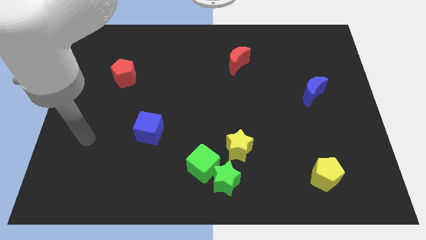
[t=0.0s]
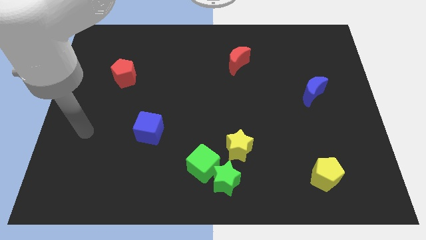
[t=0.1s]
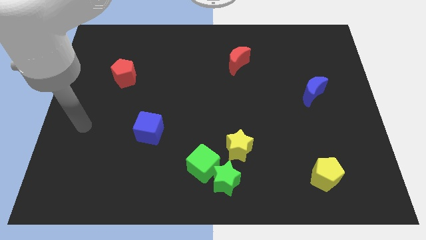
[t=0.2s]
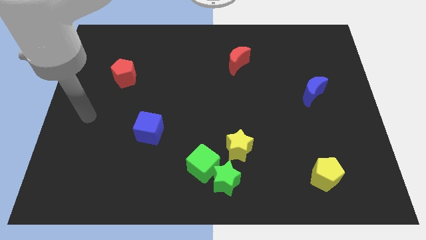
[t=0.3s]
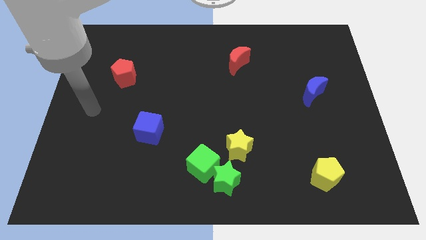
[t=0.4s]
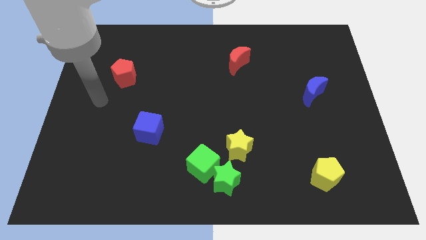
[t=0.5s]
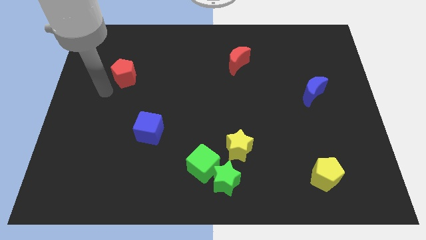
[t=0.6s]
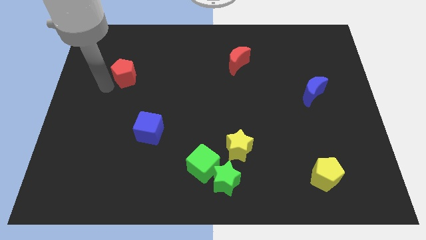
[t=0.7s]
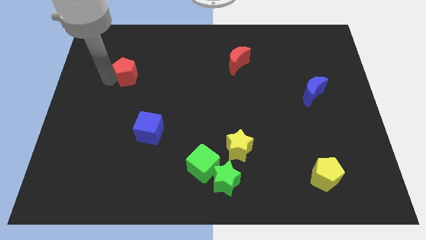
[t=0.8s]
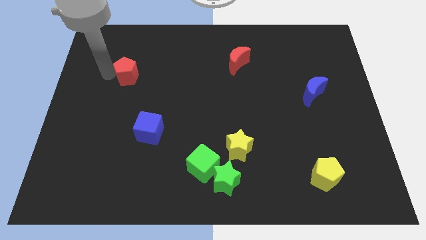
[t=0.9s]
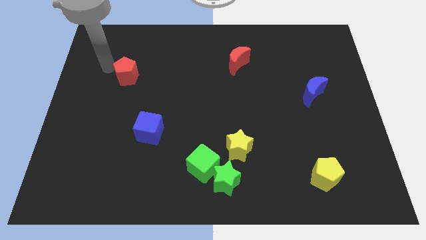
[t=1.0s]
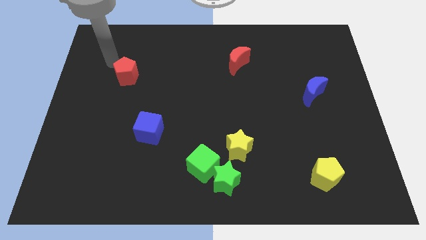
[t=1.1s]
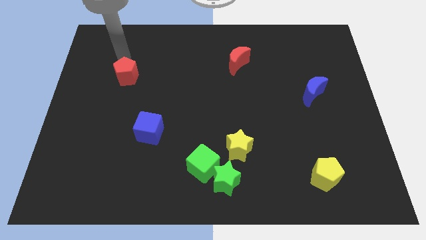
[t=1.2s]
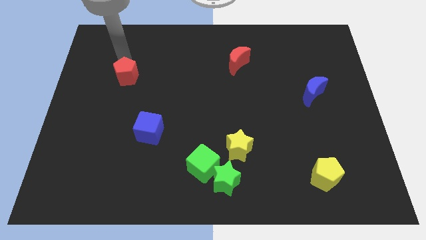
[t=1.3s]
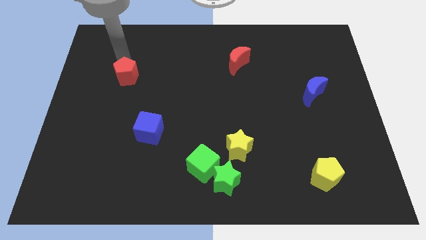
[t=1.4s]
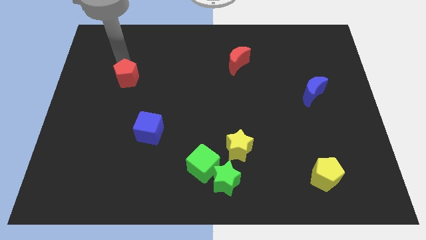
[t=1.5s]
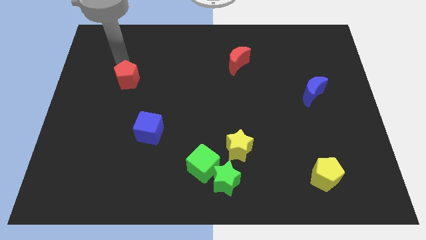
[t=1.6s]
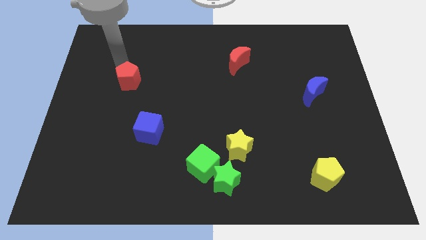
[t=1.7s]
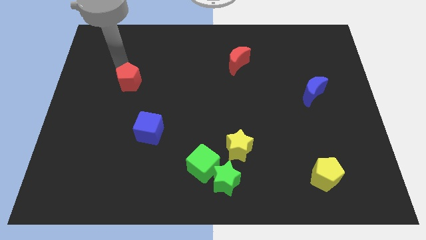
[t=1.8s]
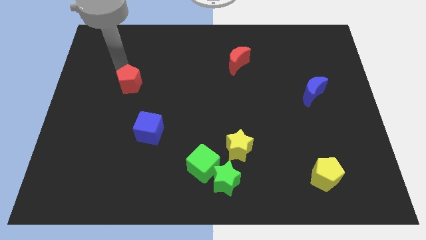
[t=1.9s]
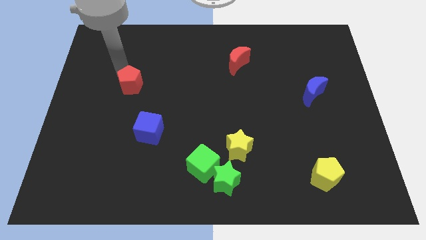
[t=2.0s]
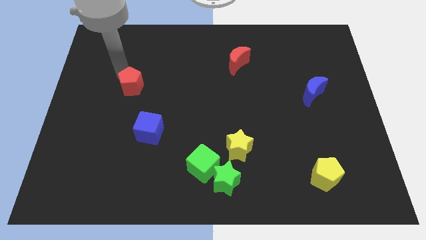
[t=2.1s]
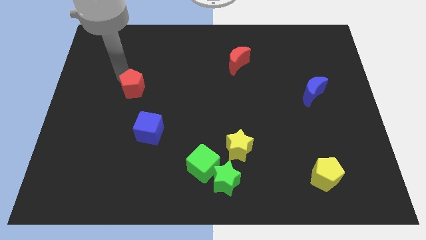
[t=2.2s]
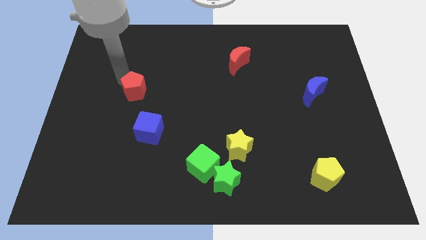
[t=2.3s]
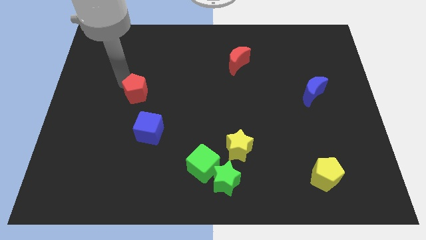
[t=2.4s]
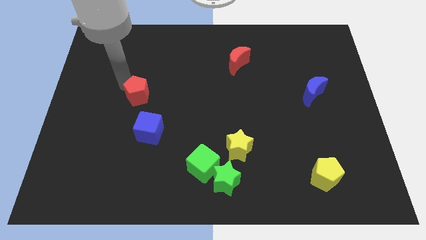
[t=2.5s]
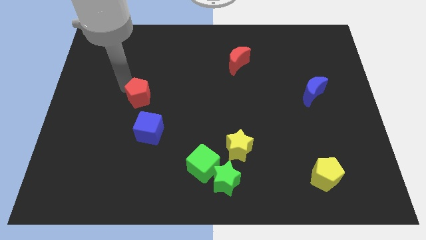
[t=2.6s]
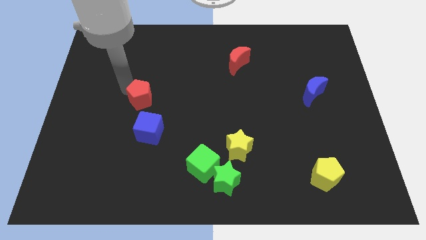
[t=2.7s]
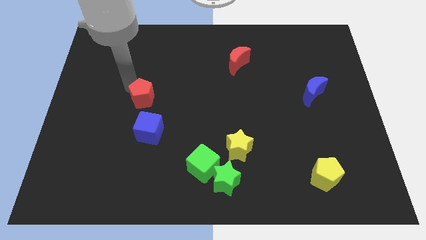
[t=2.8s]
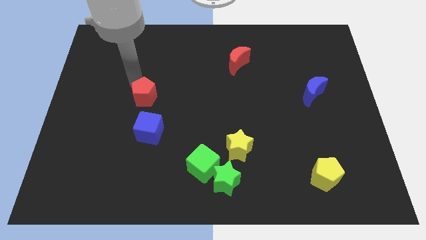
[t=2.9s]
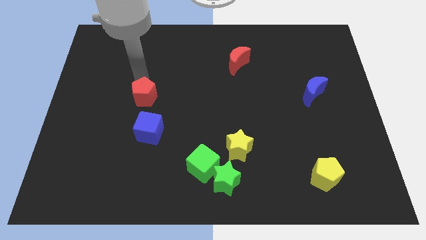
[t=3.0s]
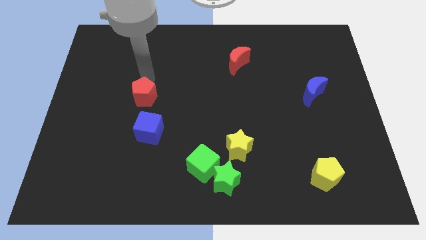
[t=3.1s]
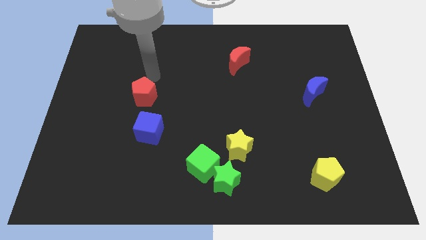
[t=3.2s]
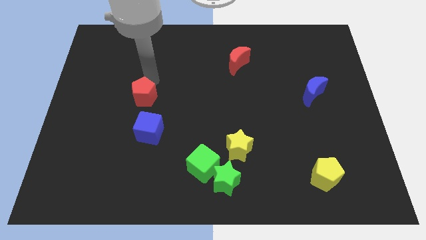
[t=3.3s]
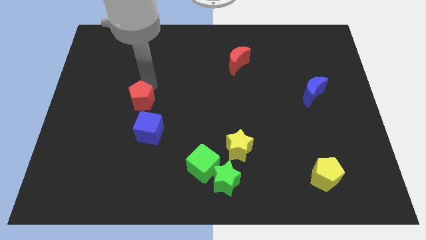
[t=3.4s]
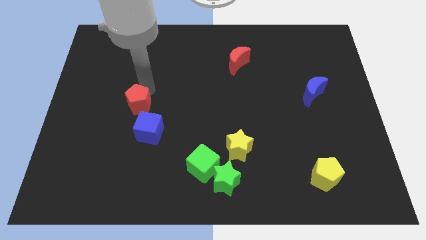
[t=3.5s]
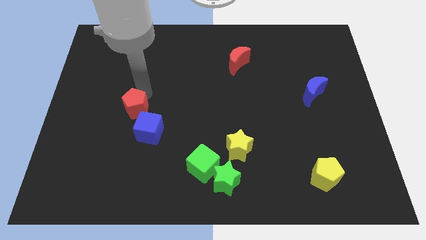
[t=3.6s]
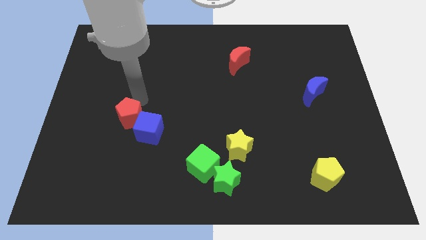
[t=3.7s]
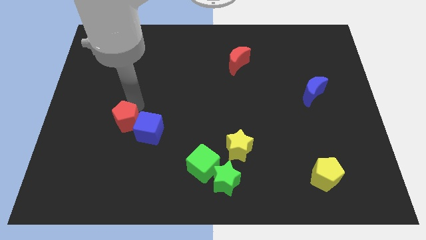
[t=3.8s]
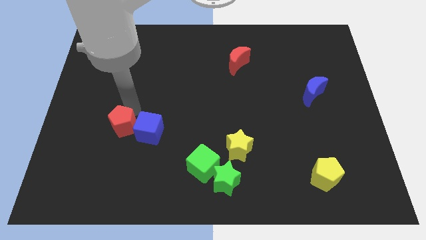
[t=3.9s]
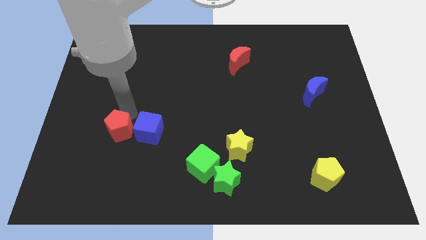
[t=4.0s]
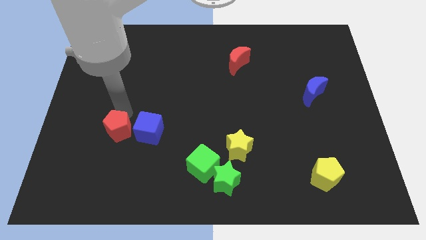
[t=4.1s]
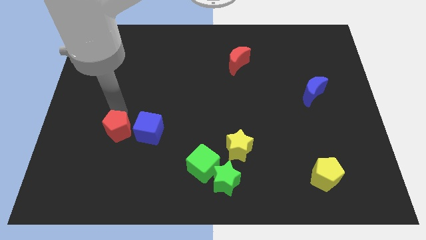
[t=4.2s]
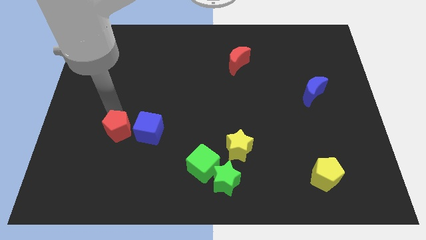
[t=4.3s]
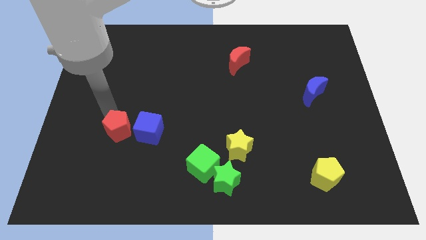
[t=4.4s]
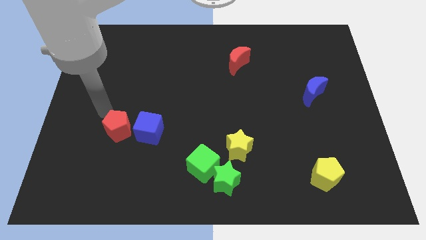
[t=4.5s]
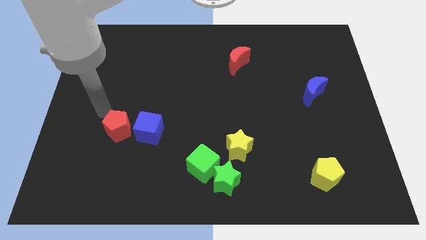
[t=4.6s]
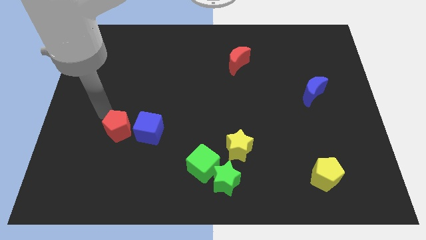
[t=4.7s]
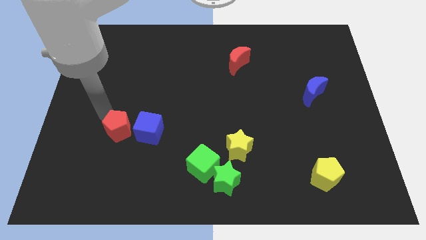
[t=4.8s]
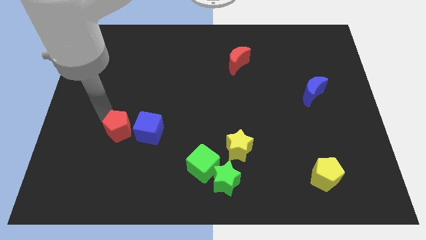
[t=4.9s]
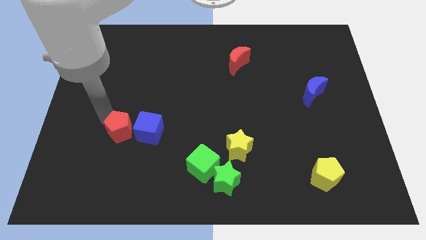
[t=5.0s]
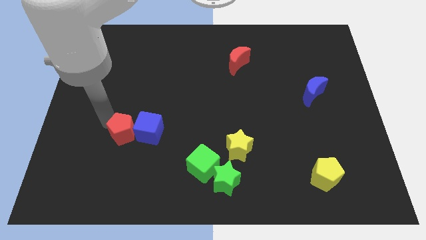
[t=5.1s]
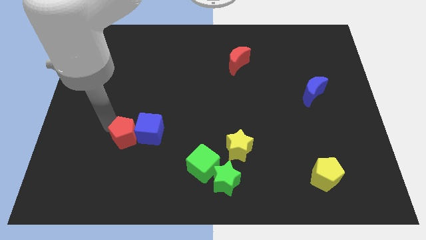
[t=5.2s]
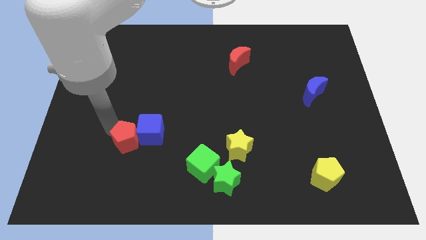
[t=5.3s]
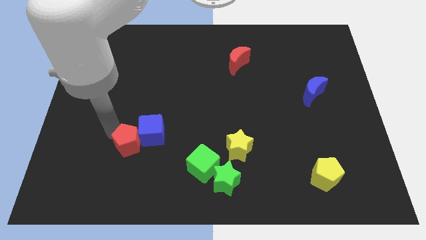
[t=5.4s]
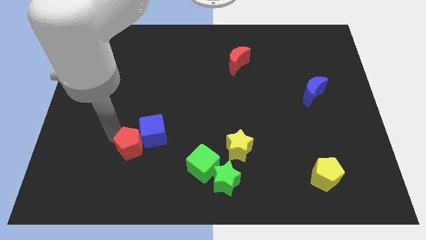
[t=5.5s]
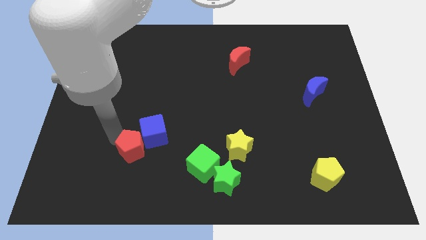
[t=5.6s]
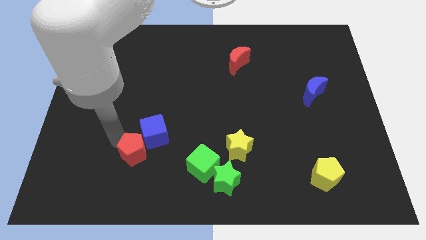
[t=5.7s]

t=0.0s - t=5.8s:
put the red pentagon to the left side of the green cube

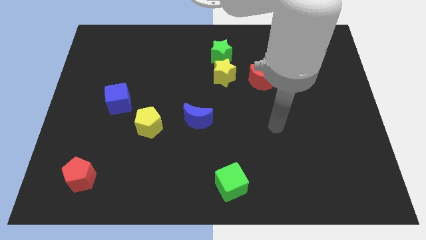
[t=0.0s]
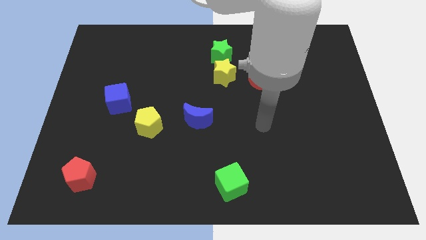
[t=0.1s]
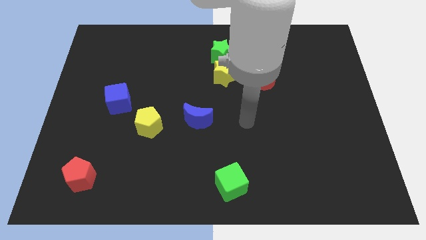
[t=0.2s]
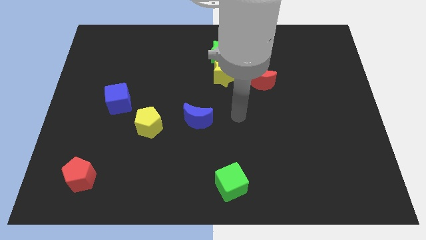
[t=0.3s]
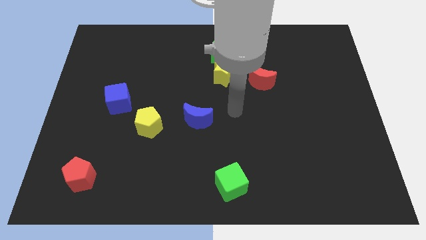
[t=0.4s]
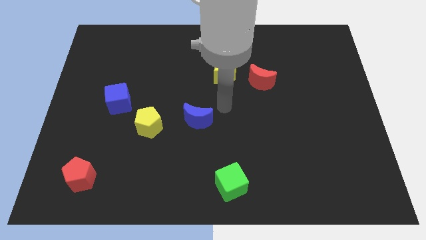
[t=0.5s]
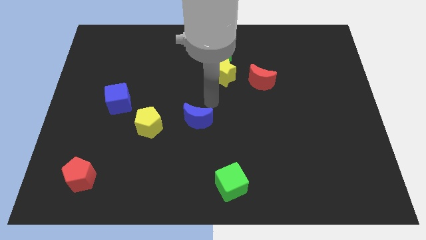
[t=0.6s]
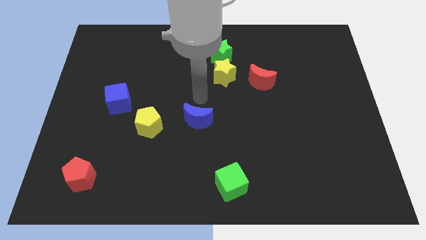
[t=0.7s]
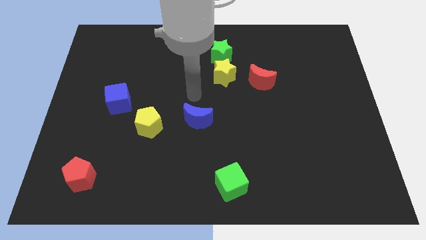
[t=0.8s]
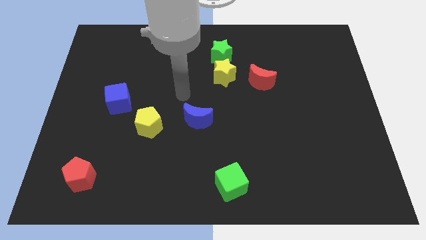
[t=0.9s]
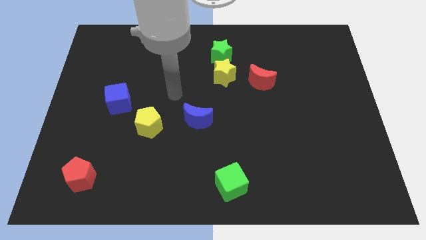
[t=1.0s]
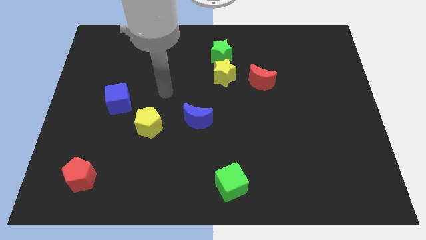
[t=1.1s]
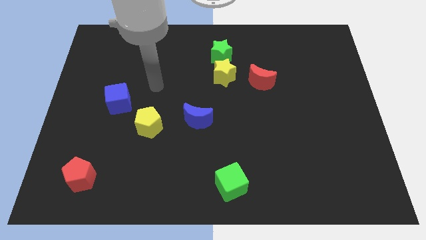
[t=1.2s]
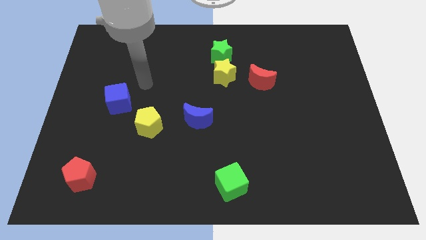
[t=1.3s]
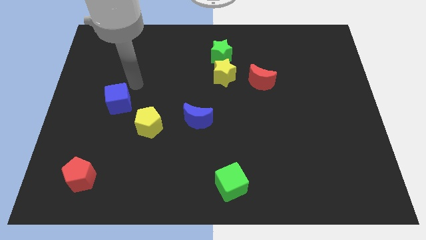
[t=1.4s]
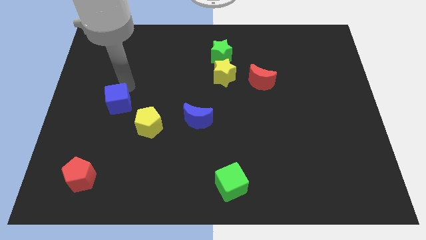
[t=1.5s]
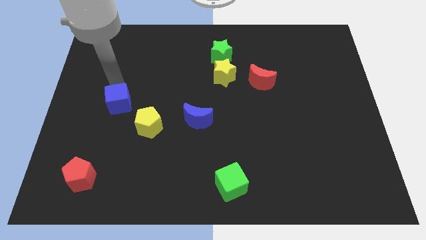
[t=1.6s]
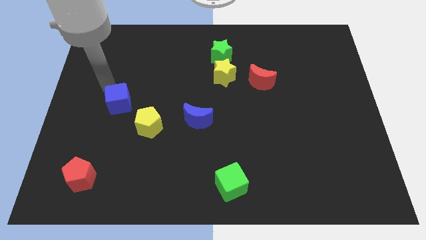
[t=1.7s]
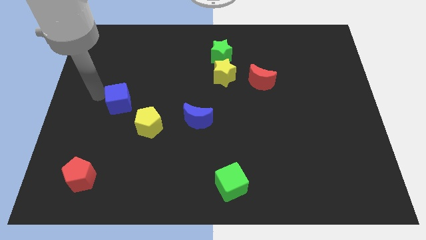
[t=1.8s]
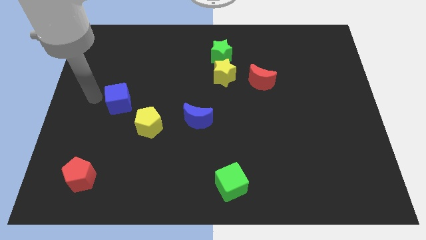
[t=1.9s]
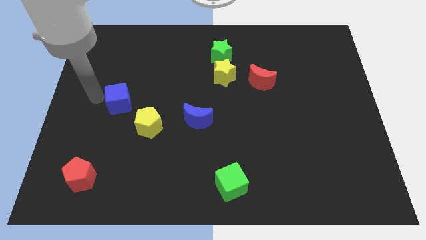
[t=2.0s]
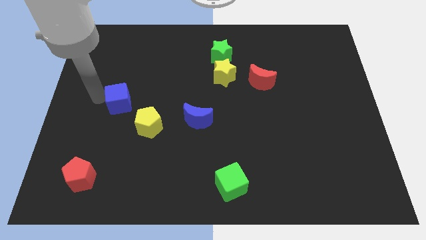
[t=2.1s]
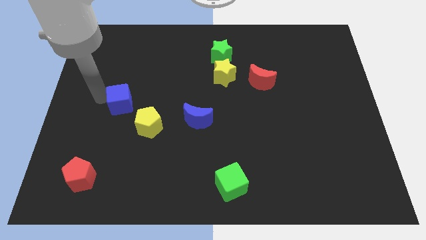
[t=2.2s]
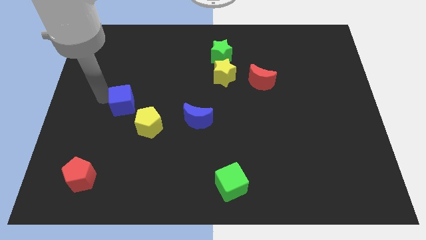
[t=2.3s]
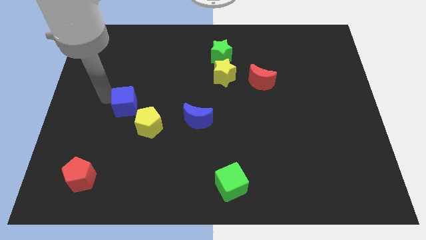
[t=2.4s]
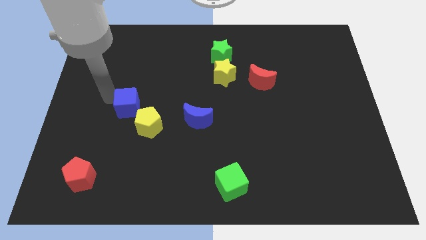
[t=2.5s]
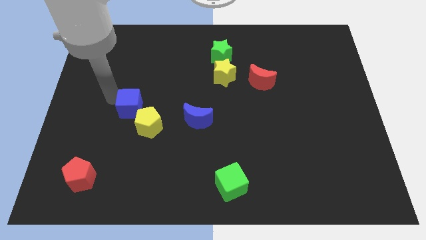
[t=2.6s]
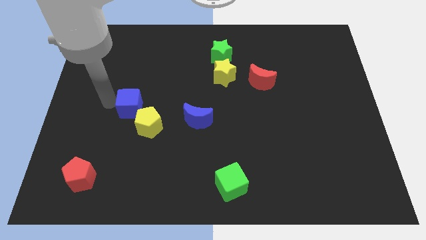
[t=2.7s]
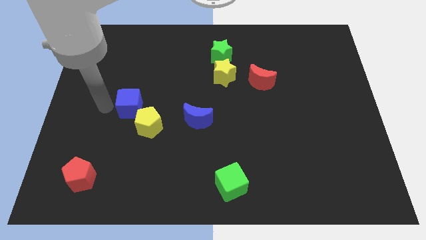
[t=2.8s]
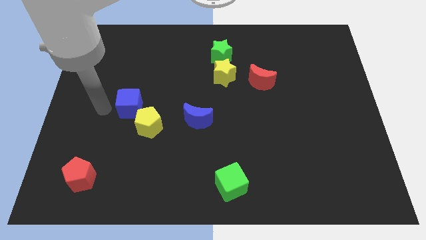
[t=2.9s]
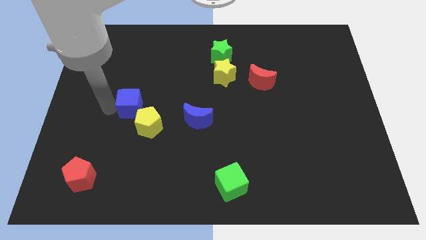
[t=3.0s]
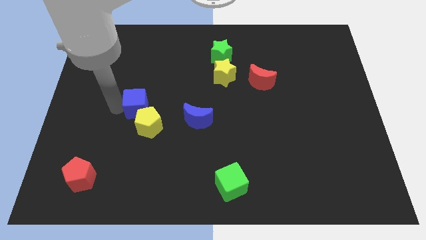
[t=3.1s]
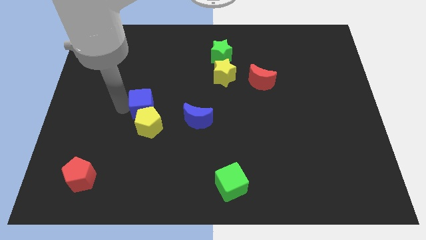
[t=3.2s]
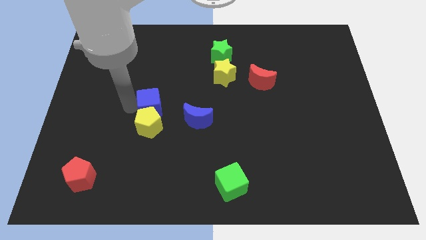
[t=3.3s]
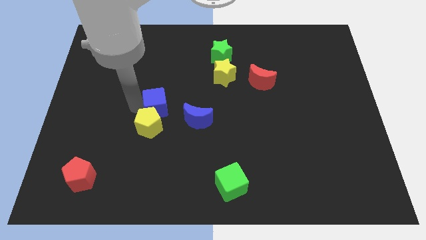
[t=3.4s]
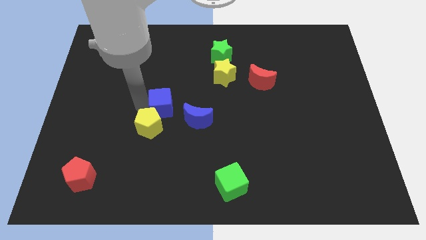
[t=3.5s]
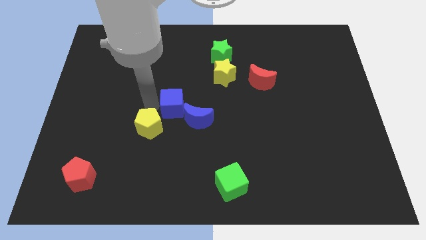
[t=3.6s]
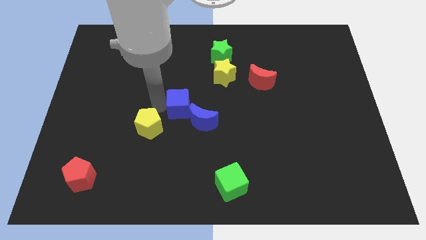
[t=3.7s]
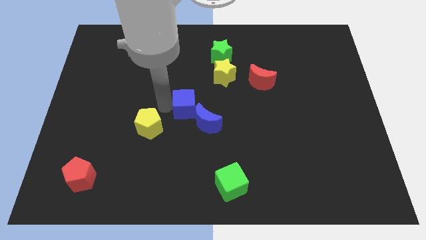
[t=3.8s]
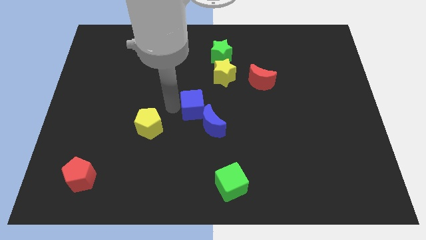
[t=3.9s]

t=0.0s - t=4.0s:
slide the blue cube to the right side of the yellow pentagon
